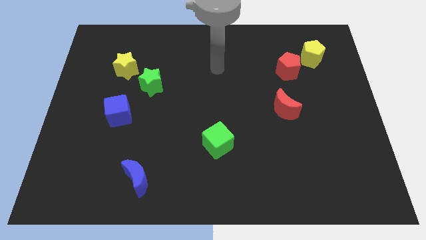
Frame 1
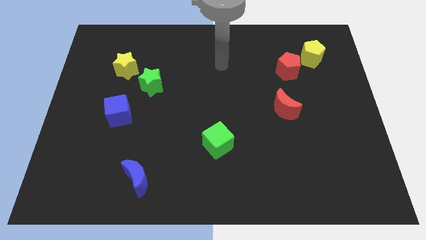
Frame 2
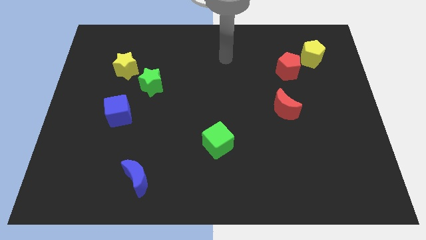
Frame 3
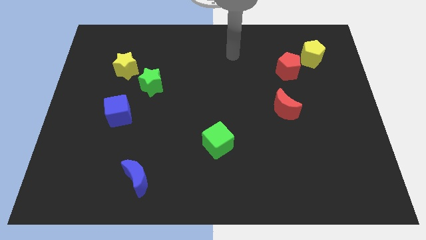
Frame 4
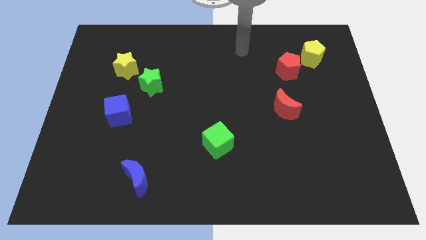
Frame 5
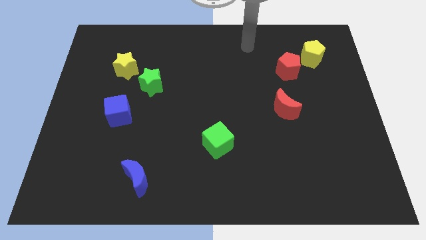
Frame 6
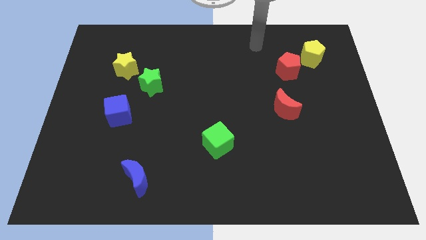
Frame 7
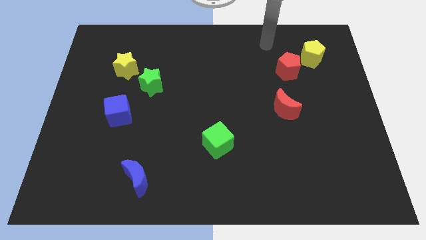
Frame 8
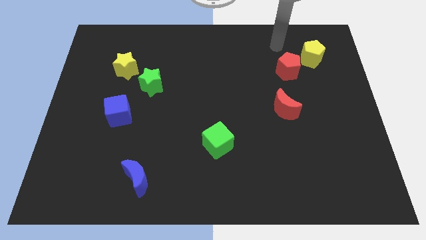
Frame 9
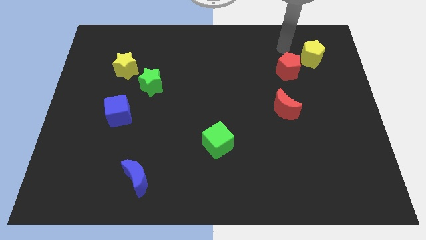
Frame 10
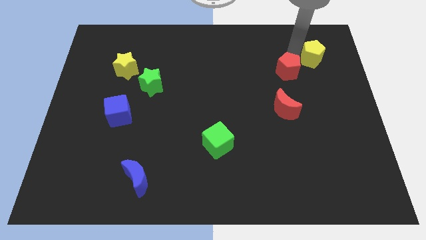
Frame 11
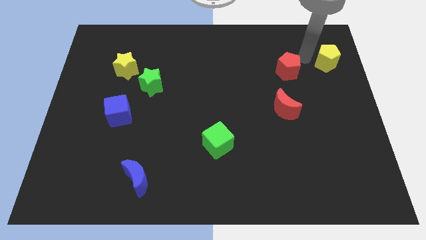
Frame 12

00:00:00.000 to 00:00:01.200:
pull the red pentagon apart from the yellow pentagon

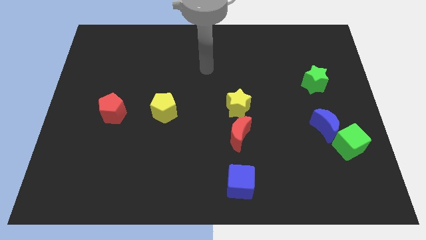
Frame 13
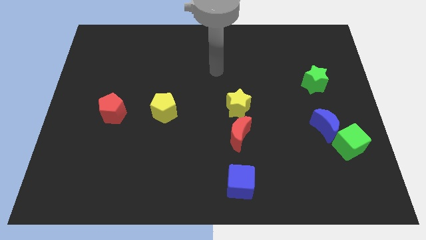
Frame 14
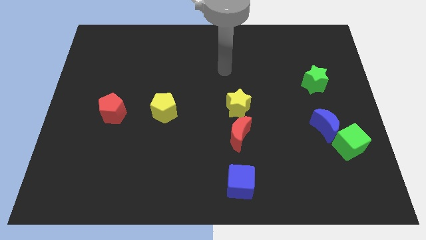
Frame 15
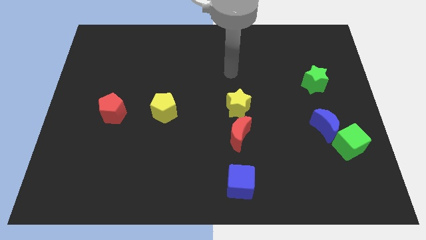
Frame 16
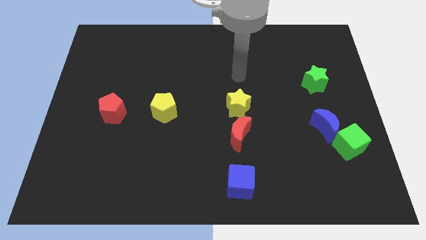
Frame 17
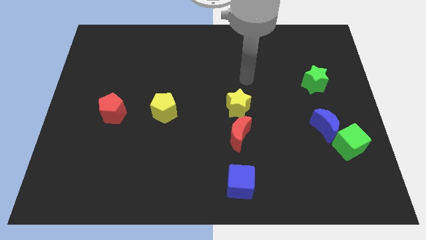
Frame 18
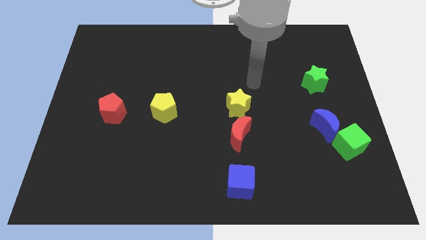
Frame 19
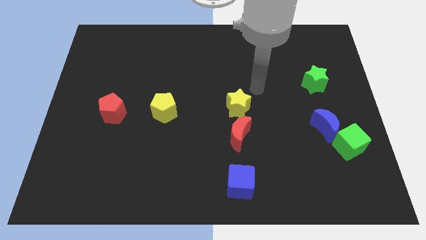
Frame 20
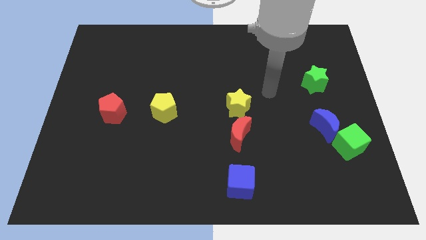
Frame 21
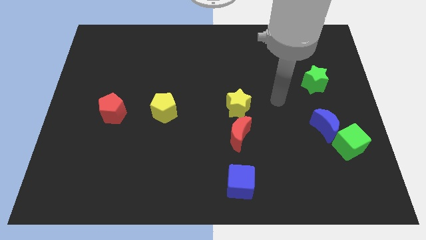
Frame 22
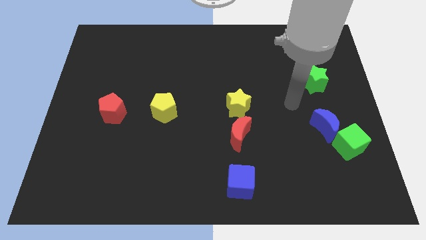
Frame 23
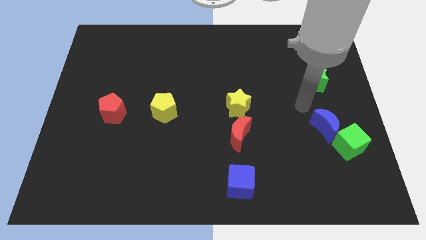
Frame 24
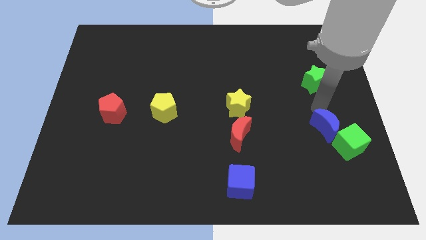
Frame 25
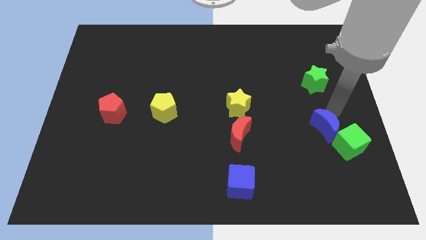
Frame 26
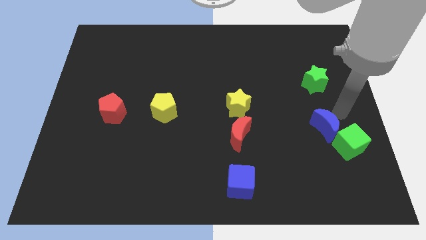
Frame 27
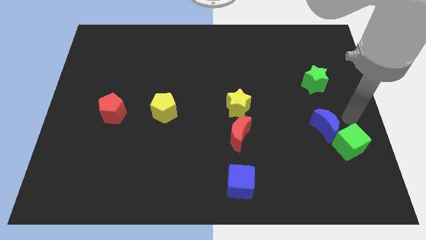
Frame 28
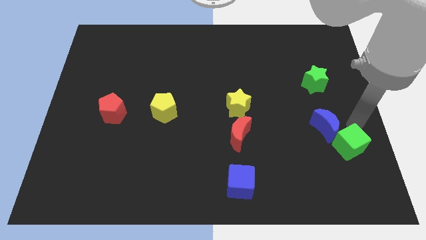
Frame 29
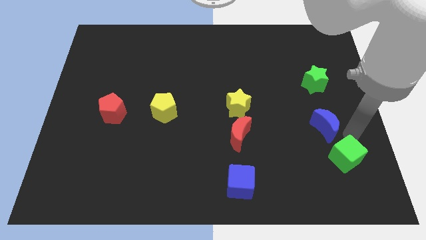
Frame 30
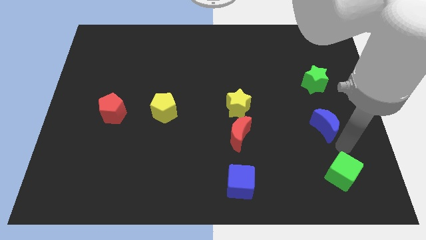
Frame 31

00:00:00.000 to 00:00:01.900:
pull the blue moon apart from the green cube

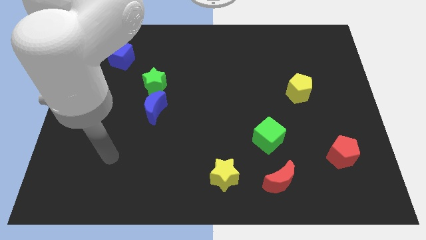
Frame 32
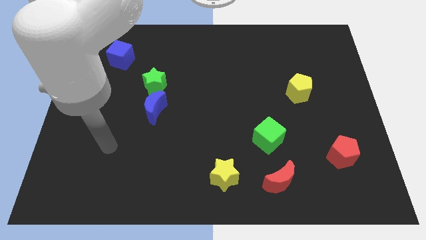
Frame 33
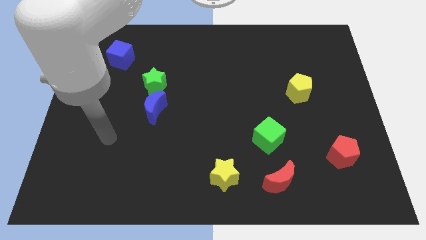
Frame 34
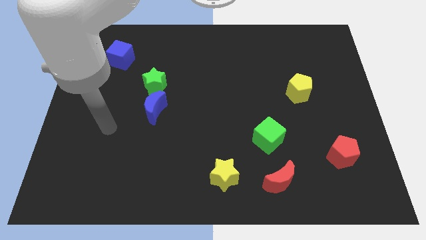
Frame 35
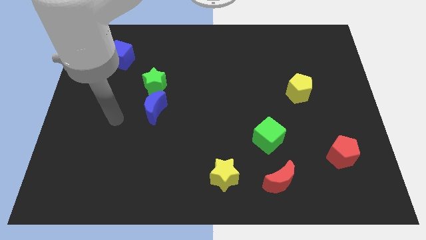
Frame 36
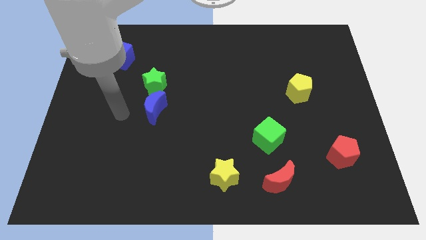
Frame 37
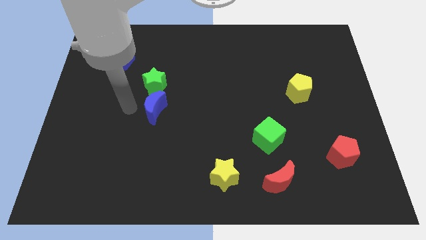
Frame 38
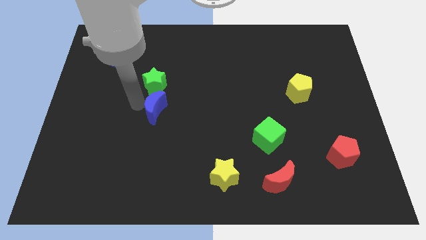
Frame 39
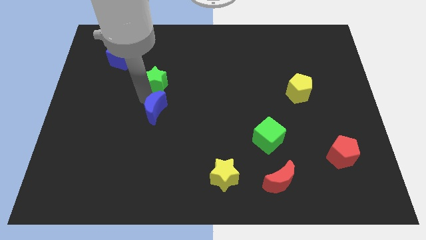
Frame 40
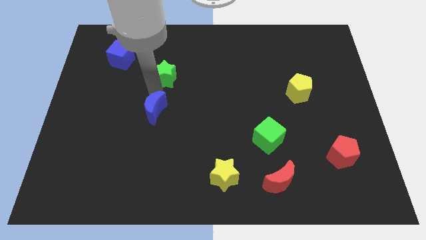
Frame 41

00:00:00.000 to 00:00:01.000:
separate the blue moon from the green star

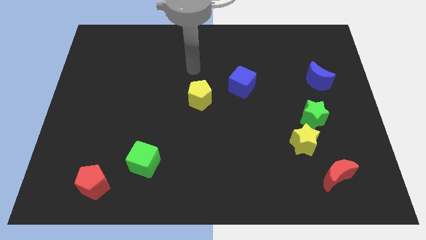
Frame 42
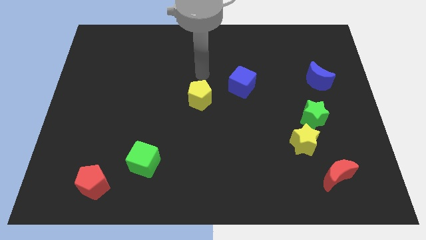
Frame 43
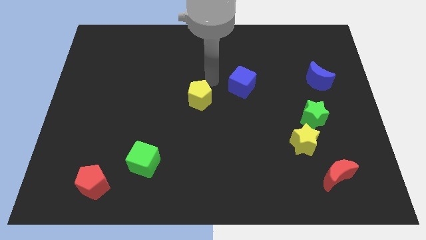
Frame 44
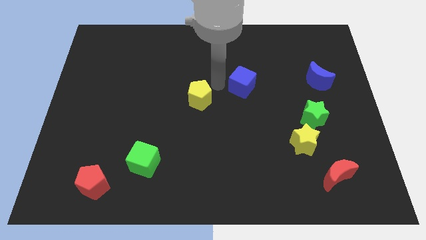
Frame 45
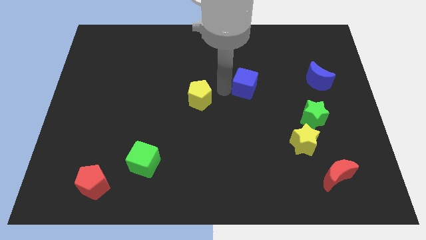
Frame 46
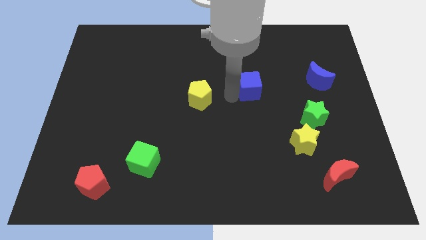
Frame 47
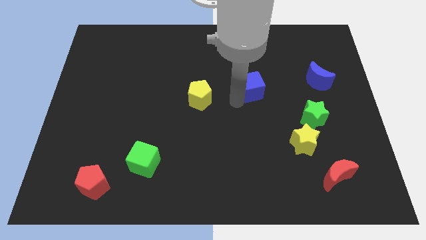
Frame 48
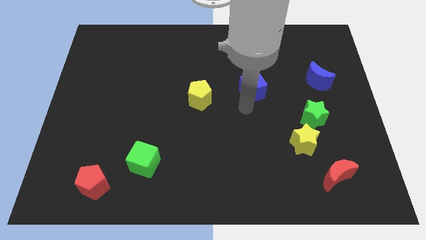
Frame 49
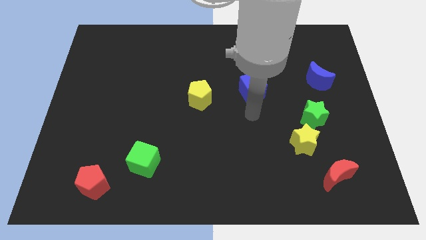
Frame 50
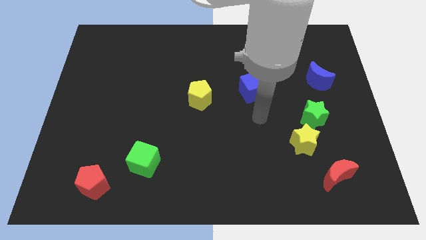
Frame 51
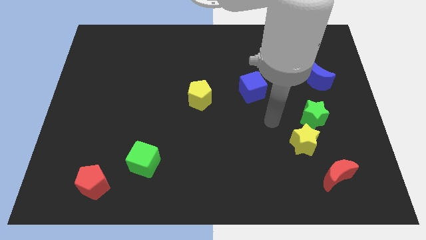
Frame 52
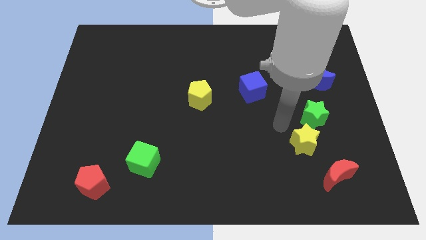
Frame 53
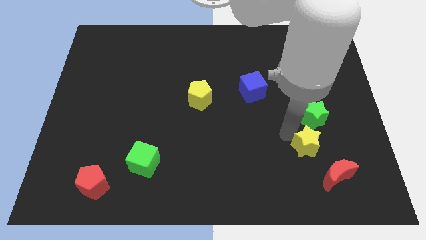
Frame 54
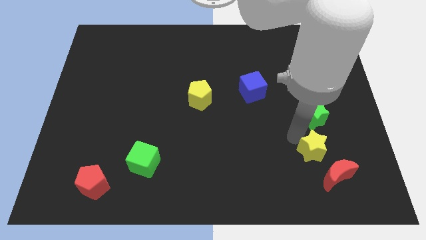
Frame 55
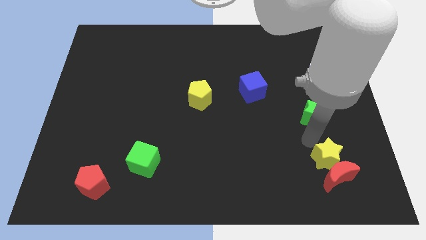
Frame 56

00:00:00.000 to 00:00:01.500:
move the green star away from the yellow star

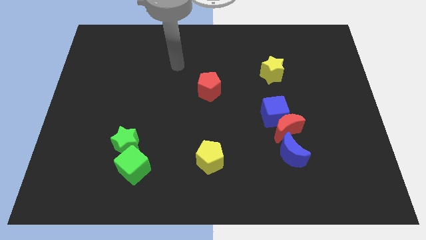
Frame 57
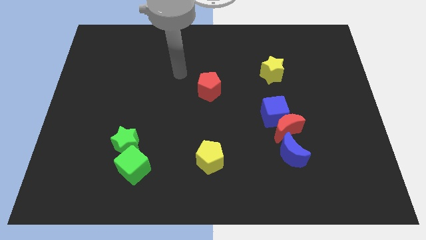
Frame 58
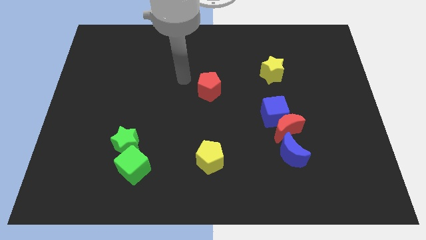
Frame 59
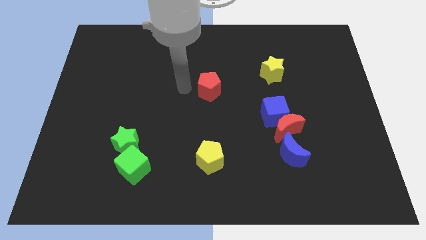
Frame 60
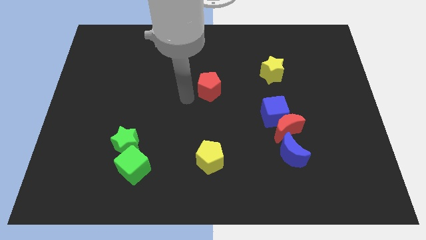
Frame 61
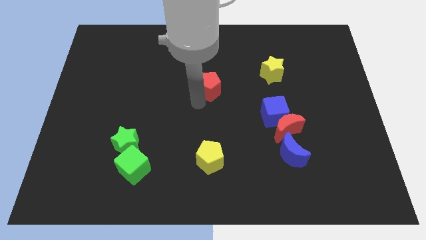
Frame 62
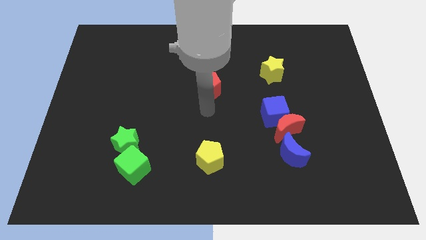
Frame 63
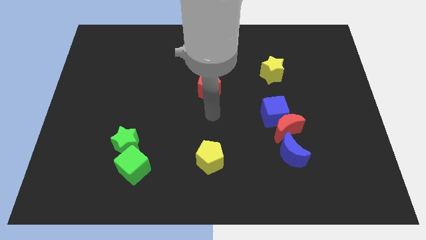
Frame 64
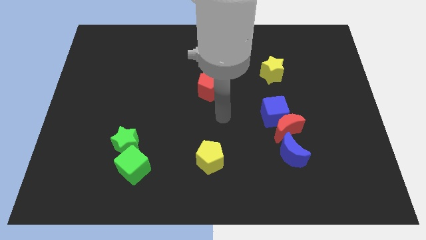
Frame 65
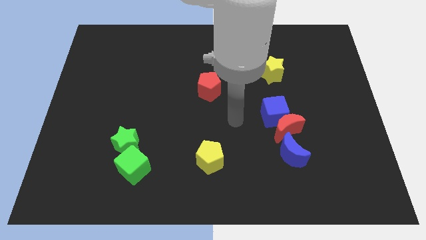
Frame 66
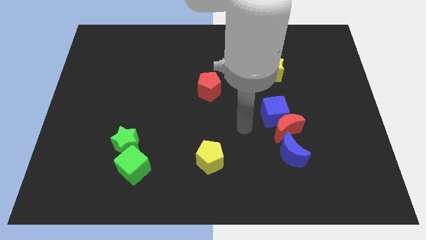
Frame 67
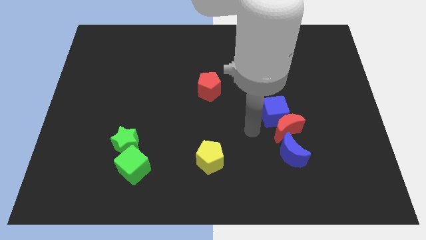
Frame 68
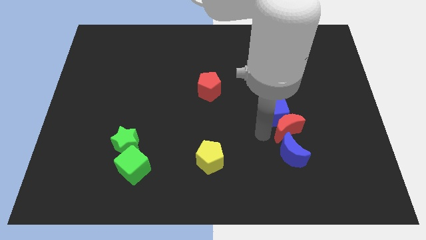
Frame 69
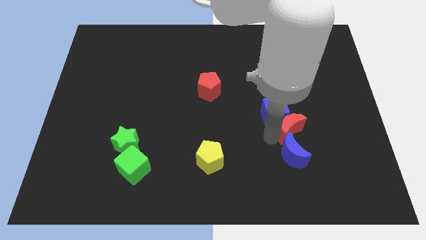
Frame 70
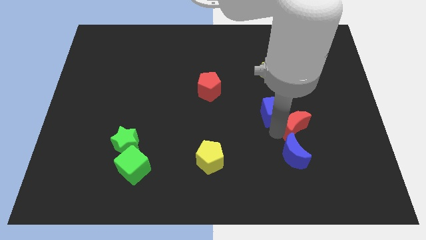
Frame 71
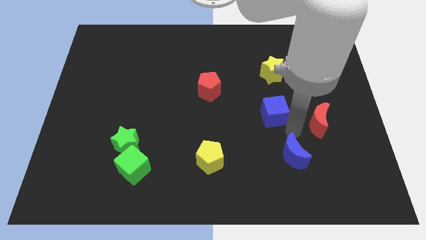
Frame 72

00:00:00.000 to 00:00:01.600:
separate the blue cube from the red moon

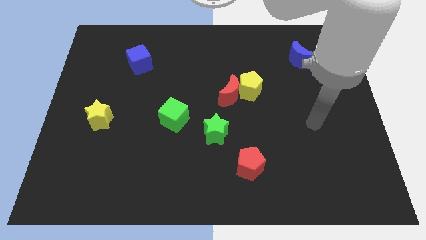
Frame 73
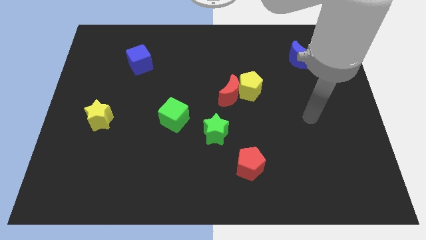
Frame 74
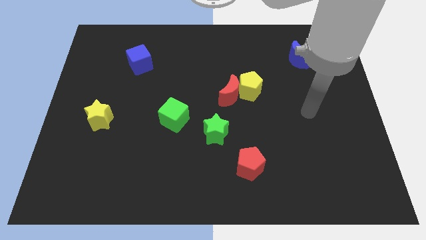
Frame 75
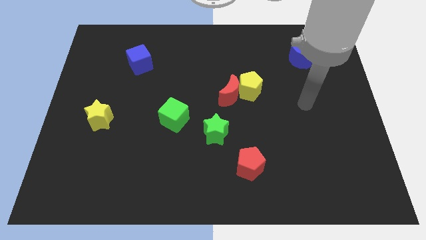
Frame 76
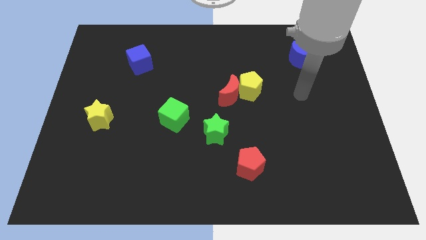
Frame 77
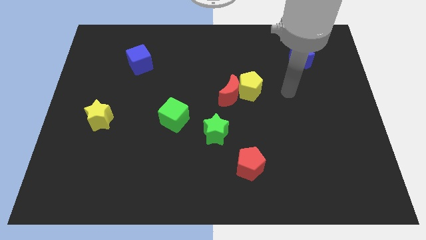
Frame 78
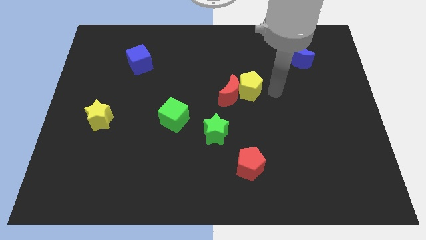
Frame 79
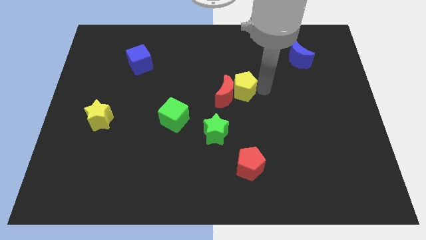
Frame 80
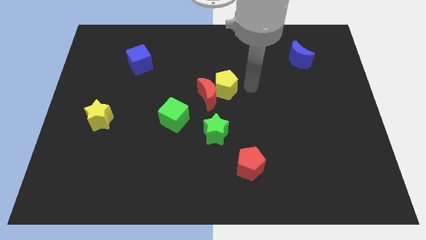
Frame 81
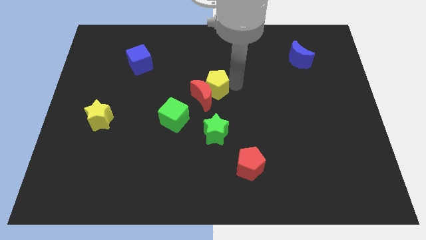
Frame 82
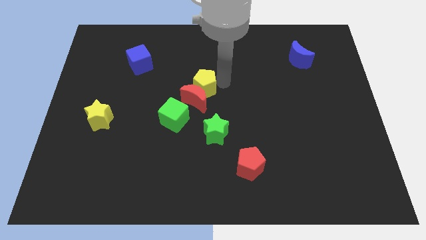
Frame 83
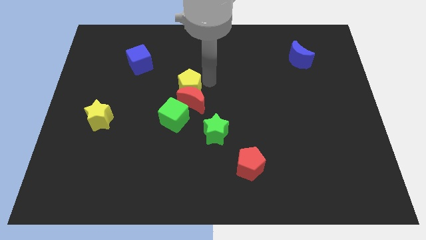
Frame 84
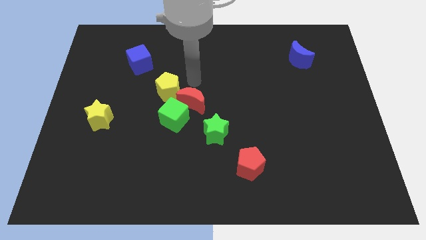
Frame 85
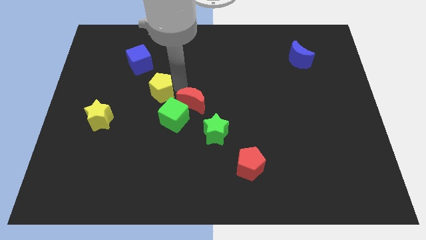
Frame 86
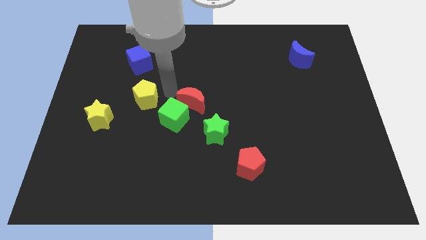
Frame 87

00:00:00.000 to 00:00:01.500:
move the red moon away from the yellow pentagon

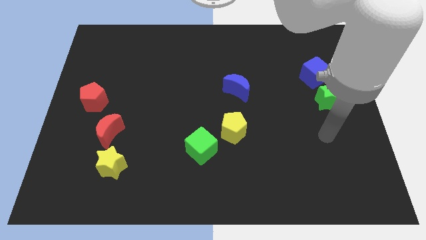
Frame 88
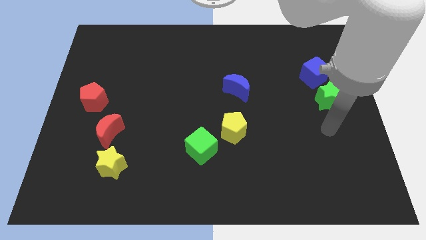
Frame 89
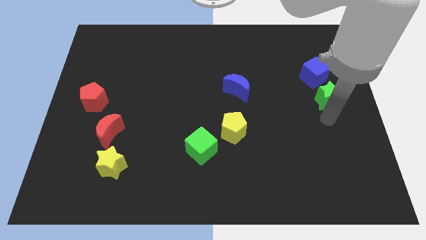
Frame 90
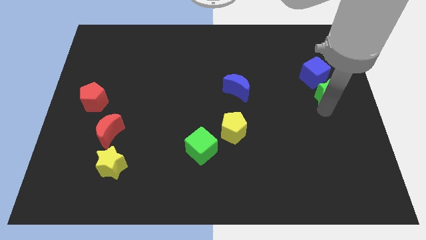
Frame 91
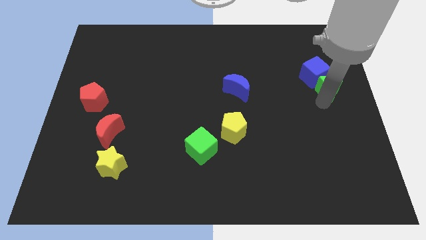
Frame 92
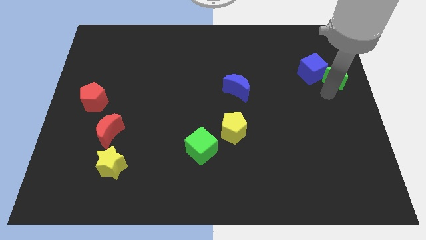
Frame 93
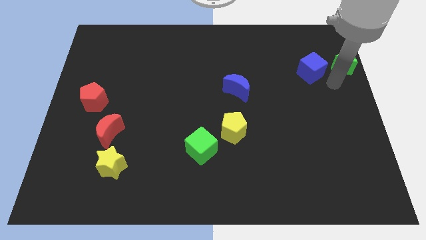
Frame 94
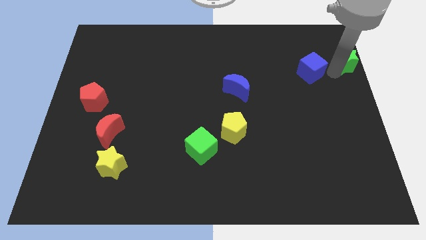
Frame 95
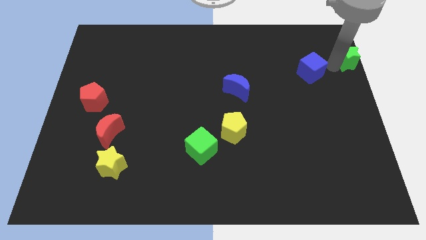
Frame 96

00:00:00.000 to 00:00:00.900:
separate the blue cube from the green star
